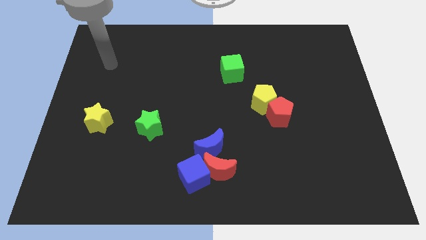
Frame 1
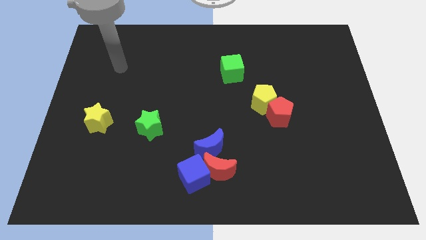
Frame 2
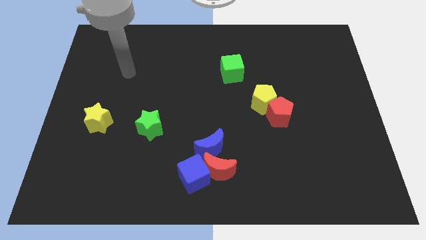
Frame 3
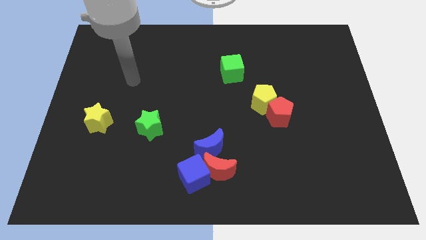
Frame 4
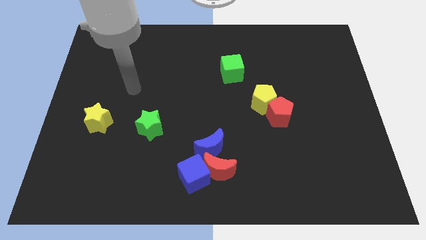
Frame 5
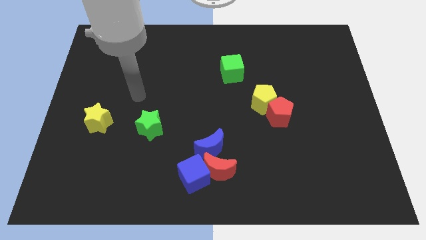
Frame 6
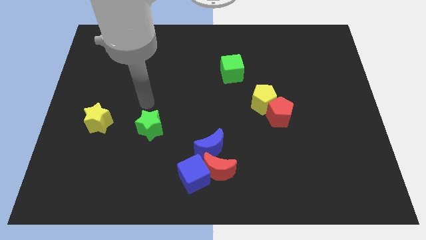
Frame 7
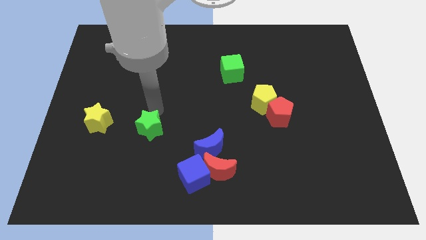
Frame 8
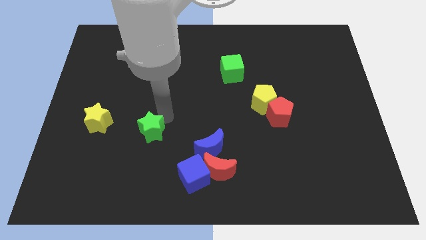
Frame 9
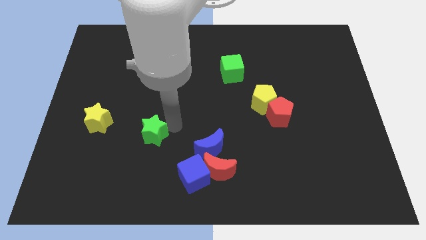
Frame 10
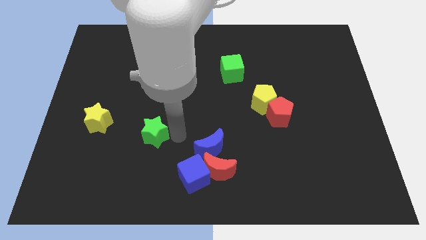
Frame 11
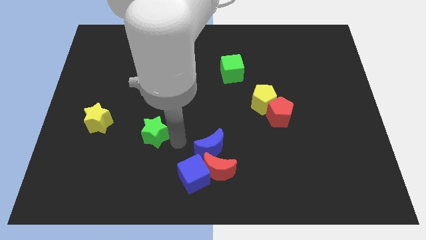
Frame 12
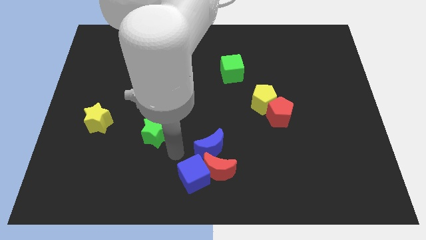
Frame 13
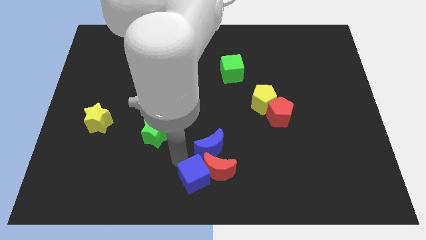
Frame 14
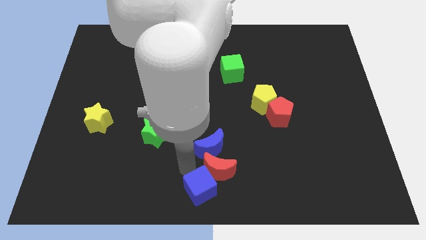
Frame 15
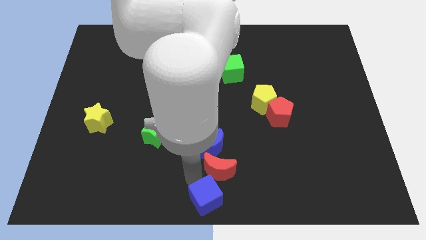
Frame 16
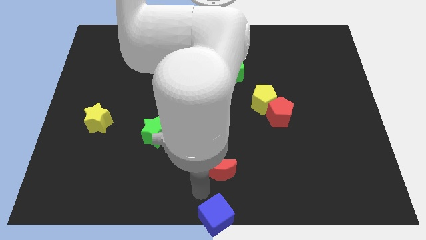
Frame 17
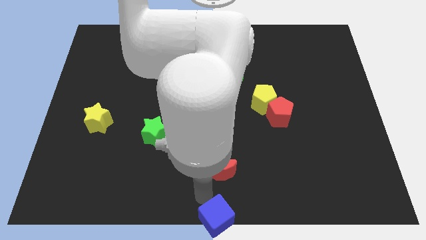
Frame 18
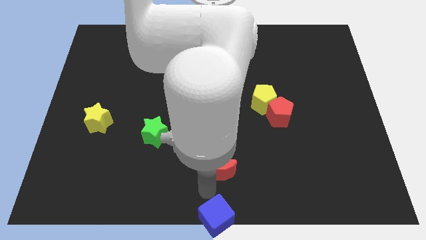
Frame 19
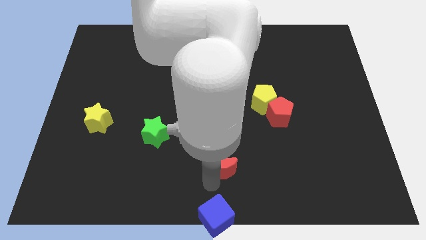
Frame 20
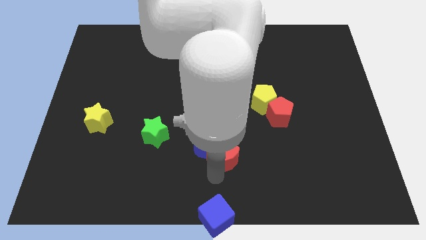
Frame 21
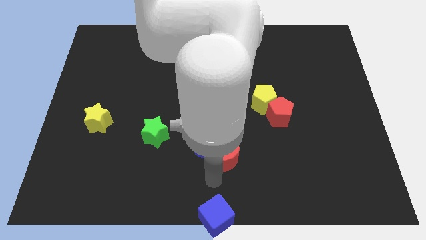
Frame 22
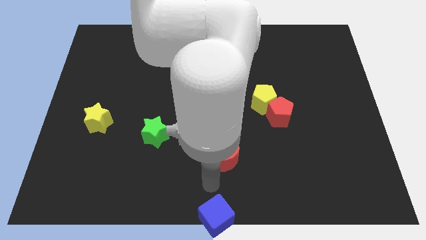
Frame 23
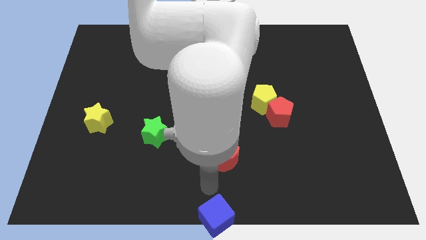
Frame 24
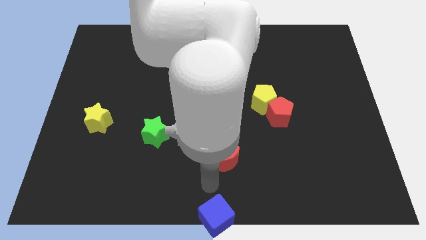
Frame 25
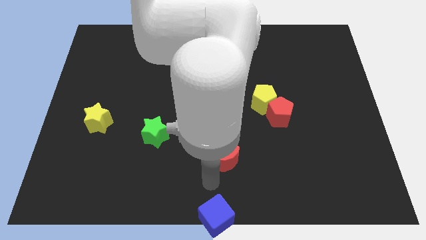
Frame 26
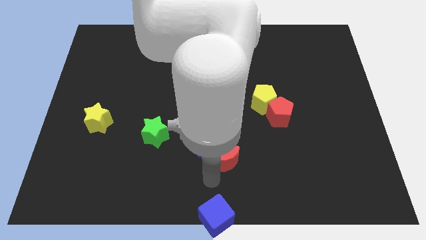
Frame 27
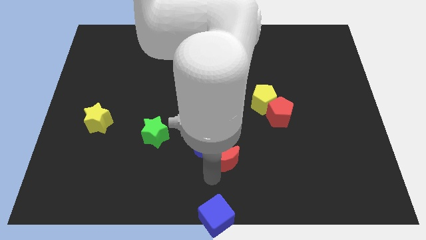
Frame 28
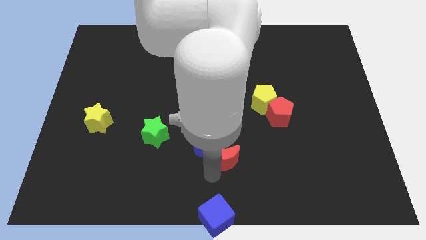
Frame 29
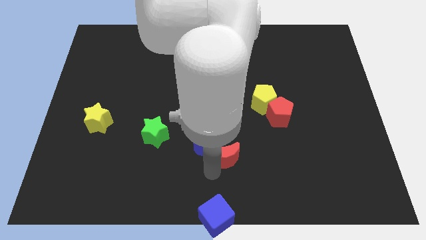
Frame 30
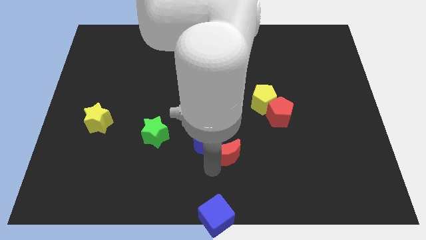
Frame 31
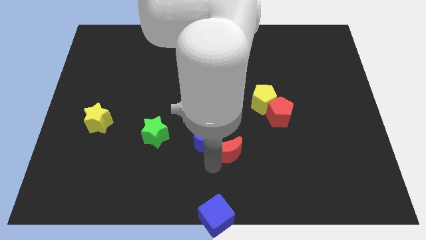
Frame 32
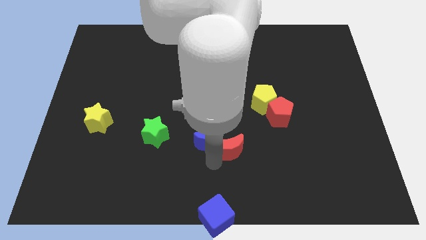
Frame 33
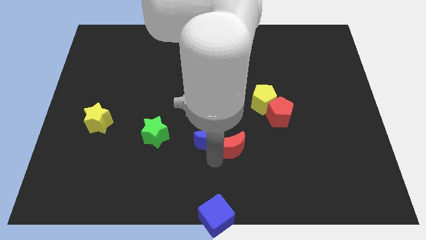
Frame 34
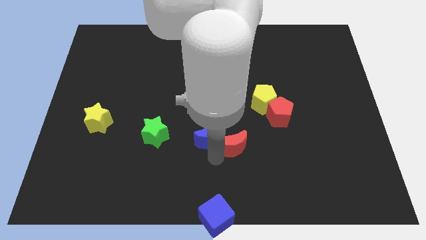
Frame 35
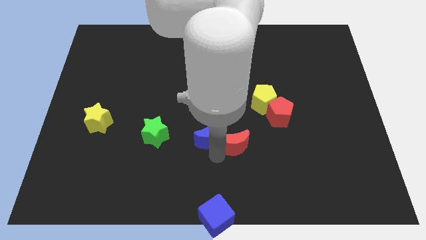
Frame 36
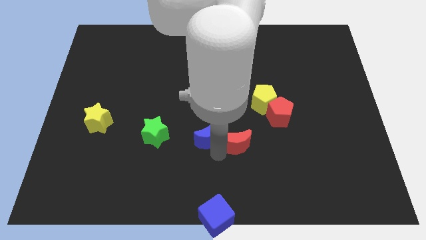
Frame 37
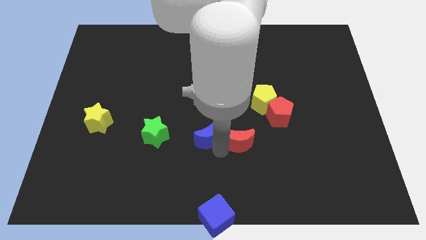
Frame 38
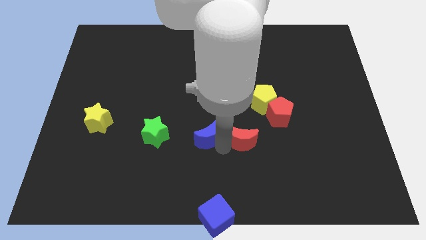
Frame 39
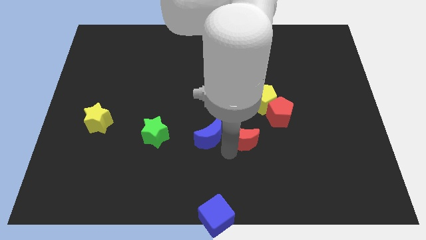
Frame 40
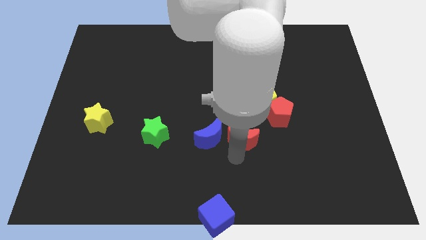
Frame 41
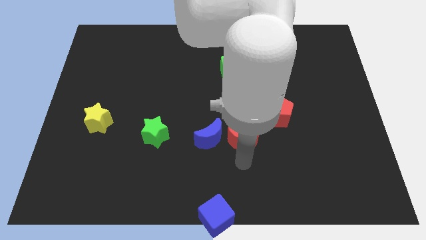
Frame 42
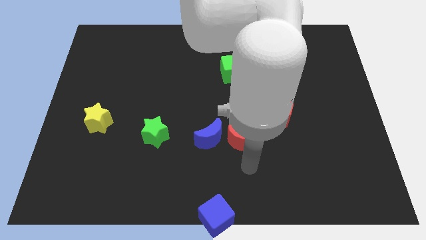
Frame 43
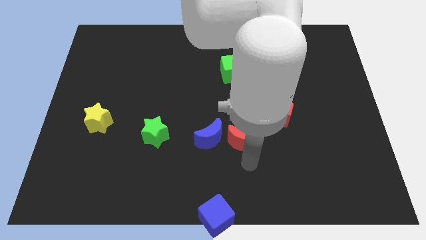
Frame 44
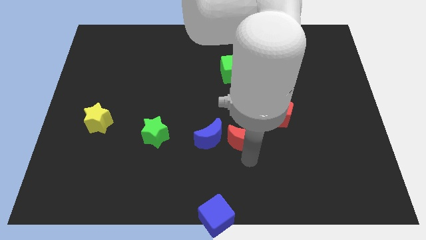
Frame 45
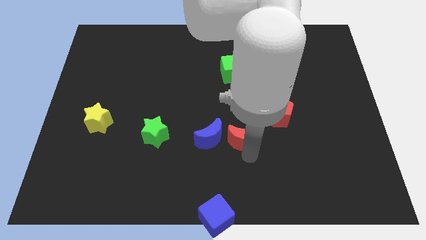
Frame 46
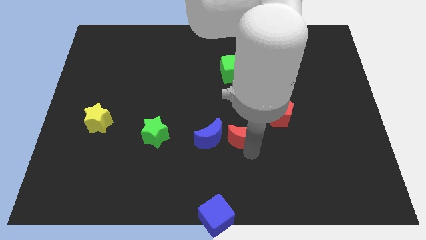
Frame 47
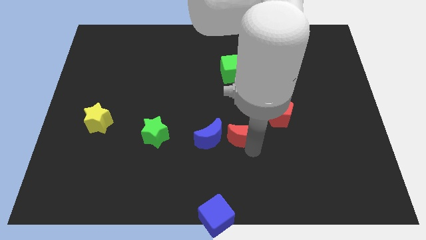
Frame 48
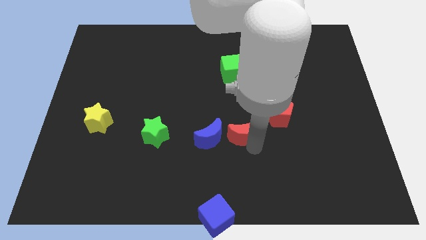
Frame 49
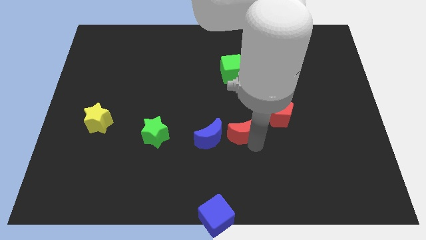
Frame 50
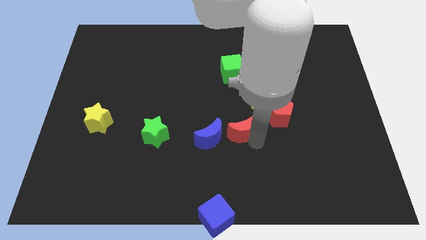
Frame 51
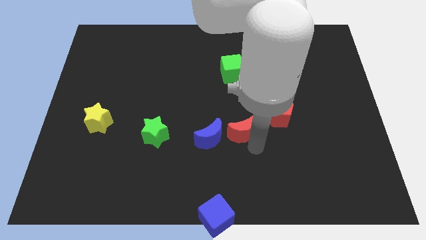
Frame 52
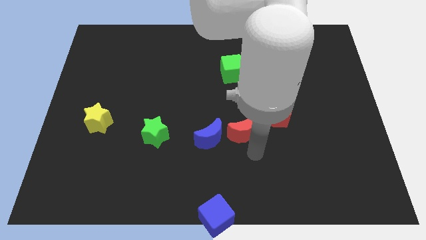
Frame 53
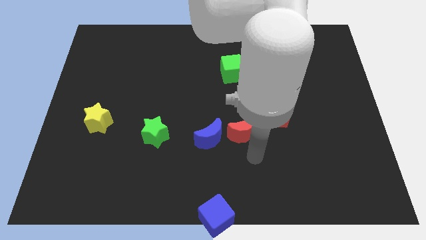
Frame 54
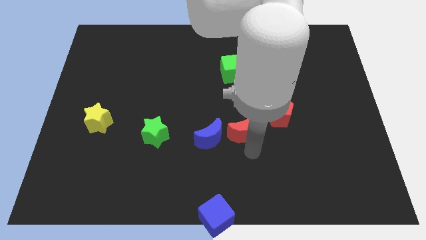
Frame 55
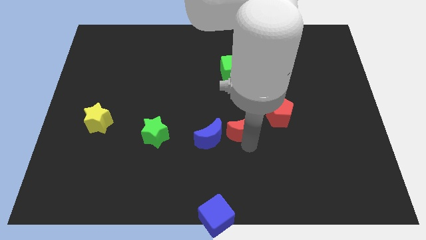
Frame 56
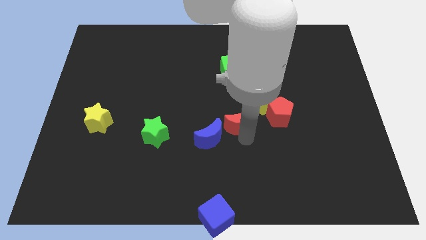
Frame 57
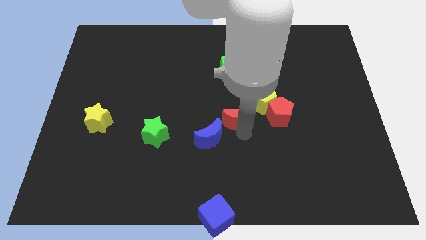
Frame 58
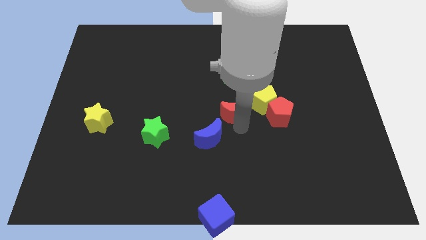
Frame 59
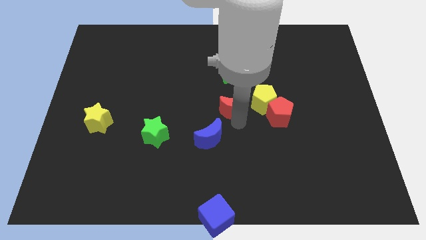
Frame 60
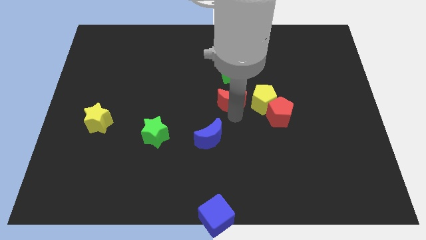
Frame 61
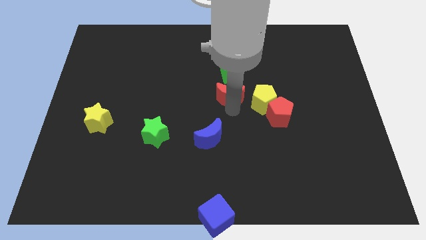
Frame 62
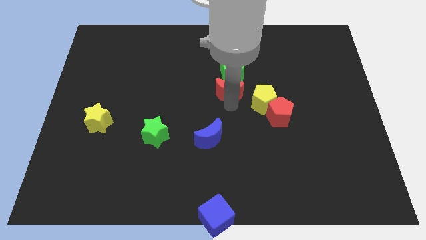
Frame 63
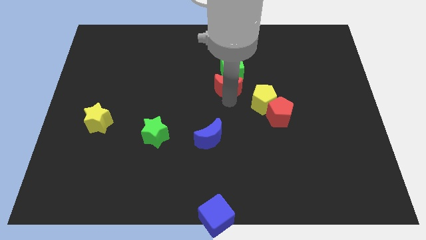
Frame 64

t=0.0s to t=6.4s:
put the red moon close to the green cube

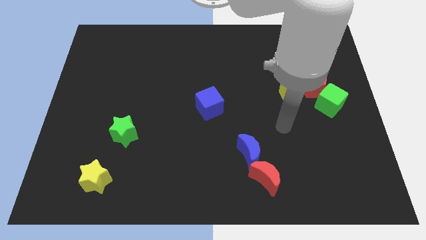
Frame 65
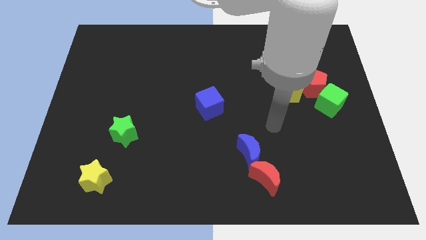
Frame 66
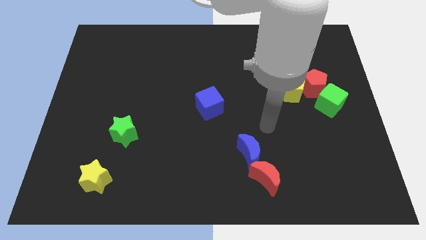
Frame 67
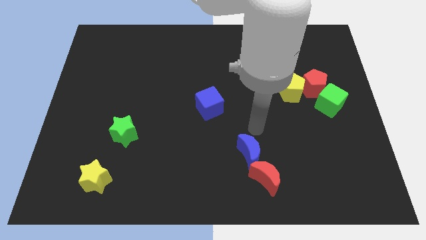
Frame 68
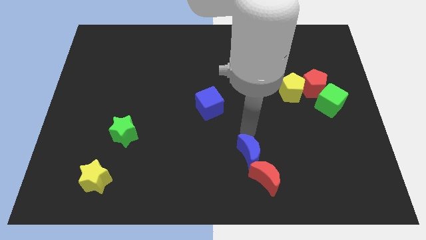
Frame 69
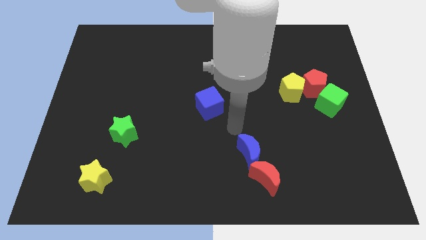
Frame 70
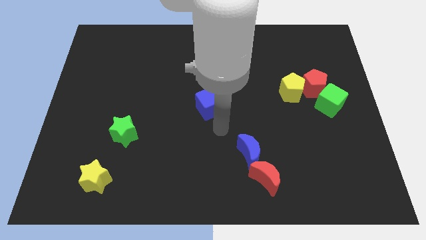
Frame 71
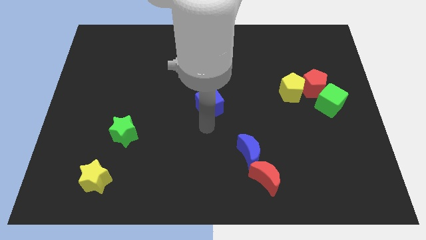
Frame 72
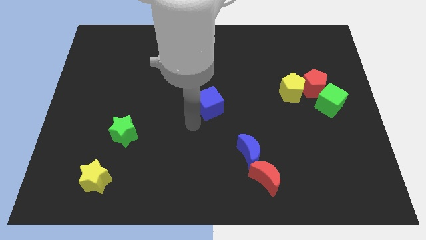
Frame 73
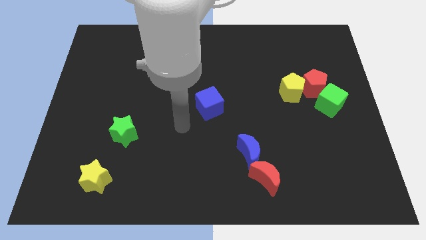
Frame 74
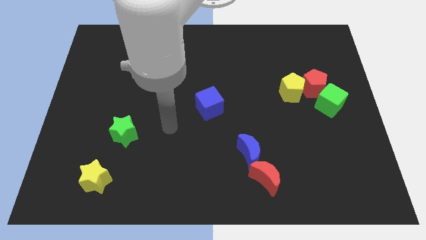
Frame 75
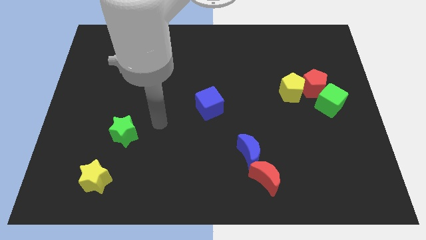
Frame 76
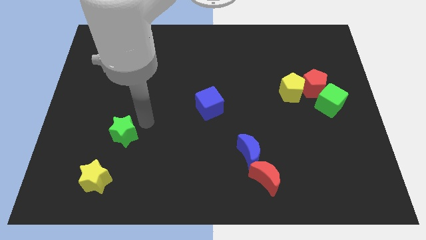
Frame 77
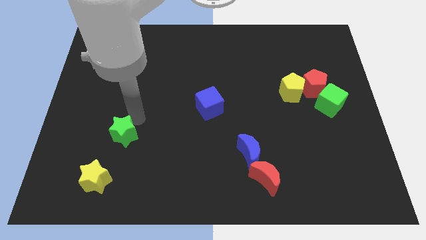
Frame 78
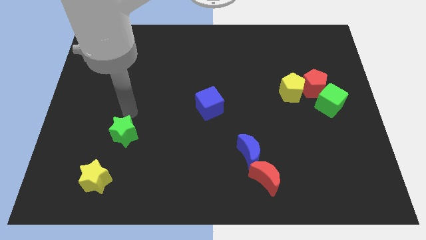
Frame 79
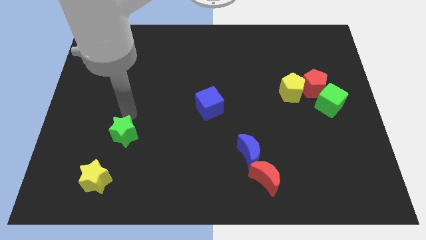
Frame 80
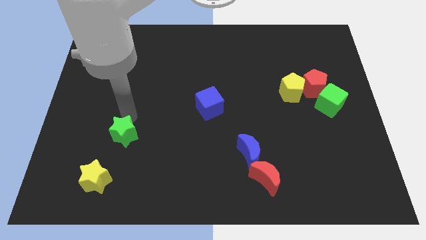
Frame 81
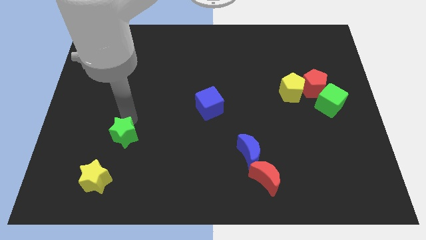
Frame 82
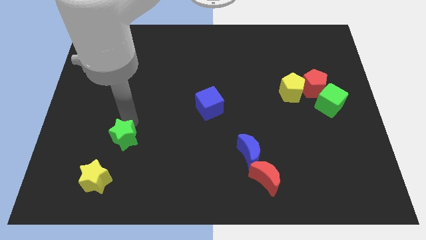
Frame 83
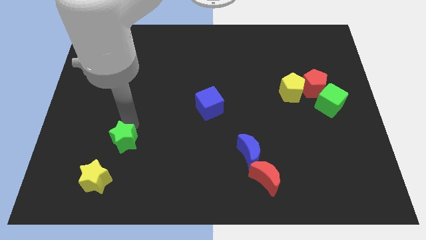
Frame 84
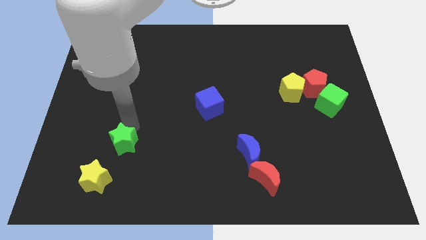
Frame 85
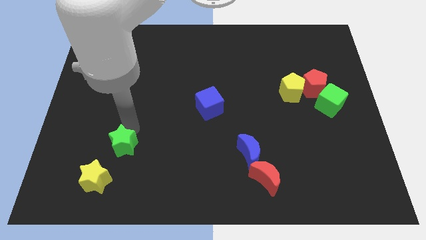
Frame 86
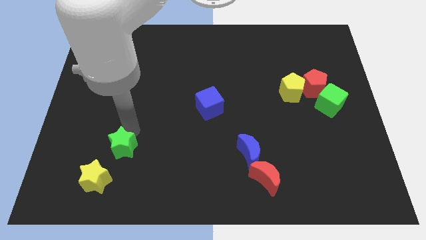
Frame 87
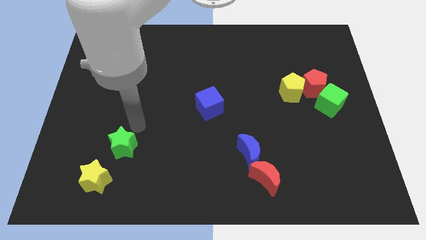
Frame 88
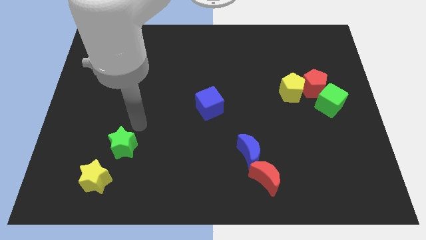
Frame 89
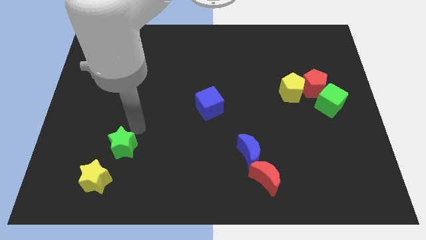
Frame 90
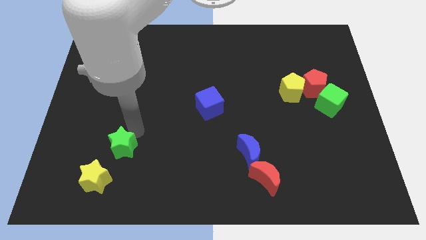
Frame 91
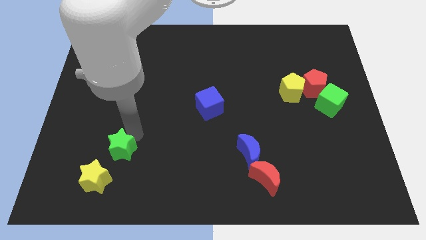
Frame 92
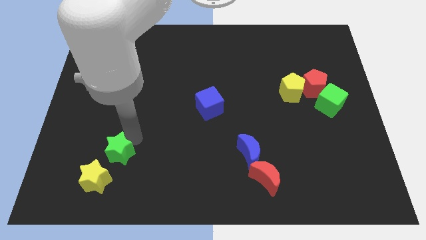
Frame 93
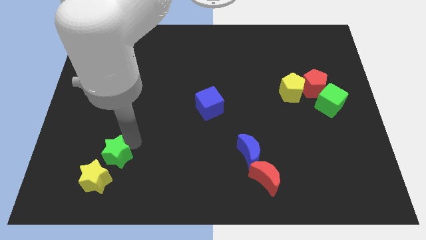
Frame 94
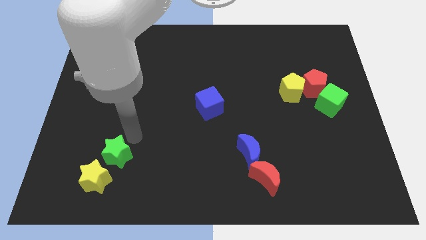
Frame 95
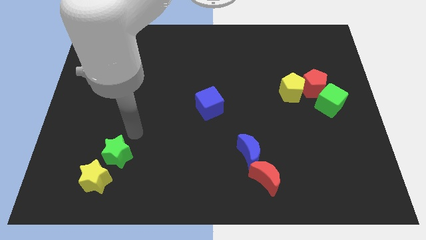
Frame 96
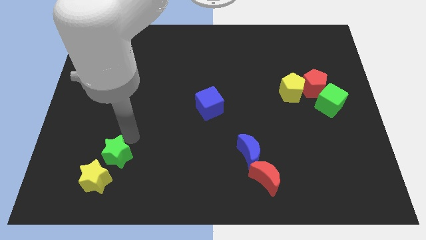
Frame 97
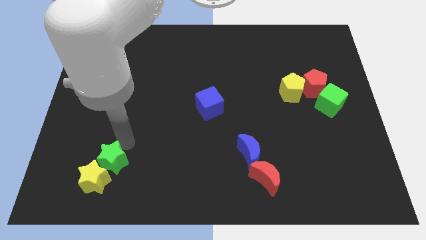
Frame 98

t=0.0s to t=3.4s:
put the green star to the yellow star
